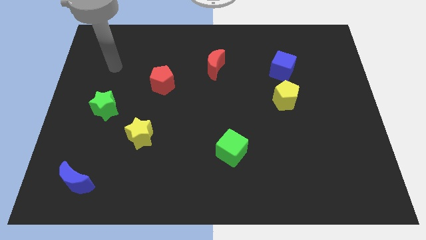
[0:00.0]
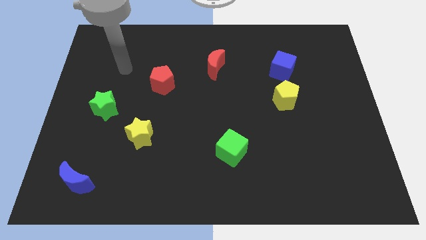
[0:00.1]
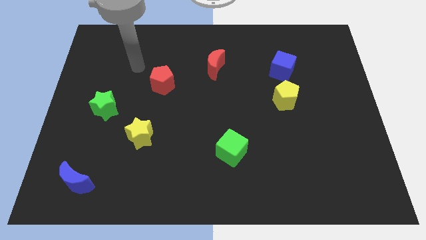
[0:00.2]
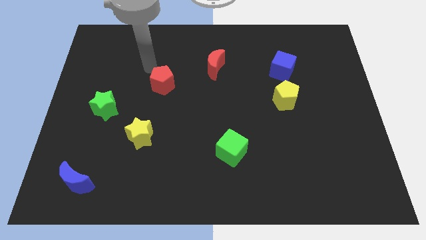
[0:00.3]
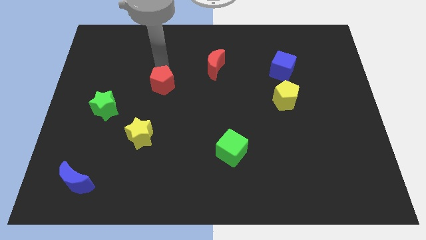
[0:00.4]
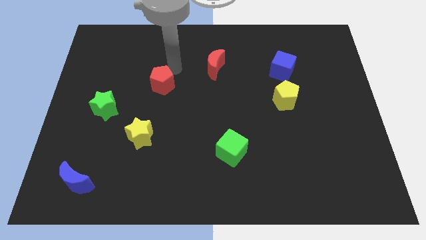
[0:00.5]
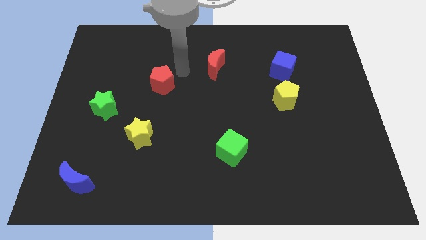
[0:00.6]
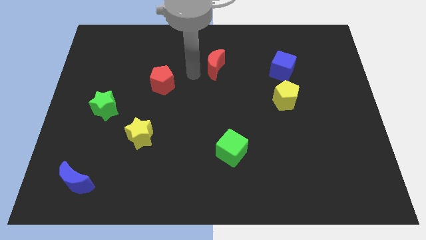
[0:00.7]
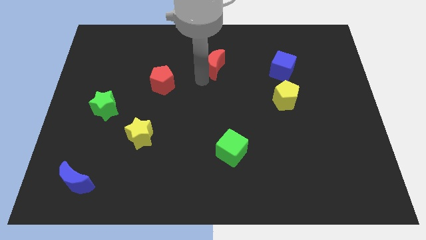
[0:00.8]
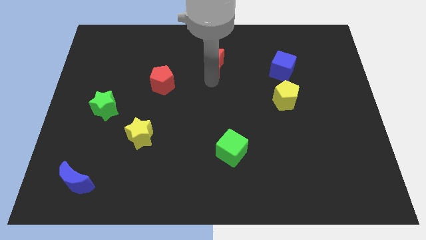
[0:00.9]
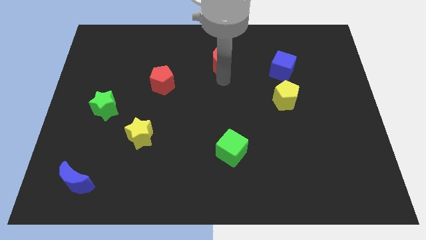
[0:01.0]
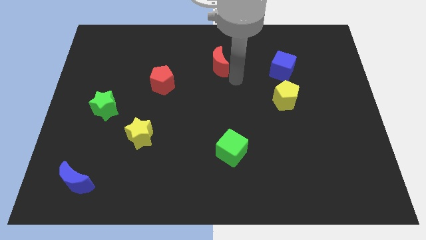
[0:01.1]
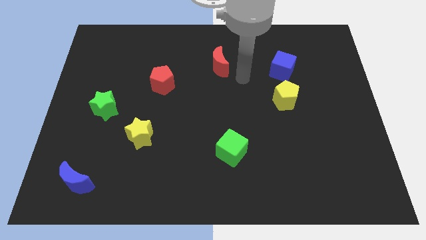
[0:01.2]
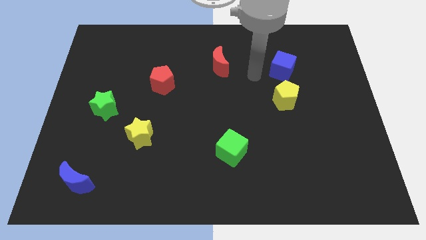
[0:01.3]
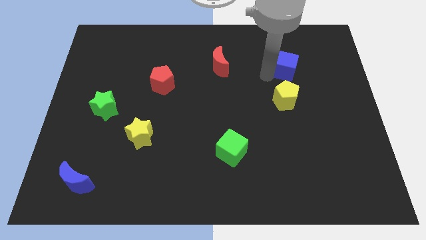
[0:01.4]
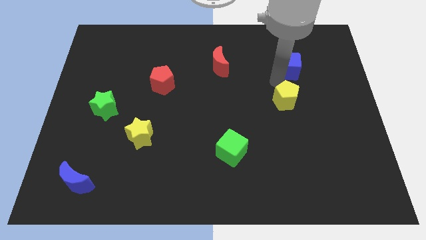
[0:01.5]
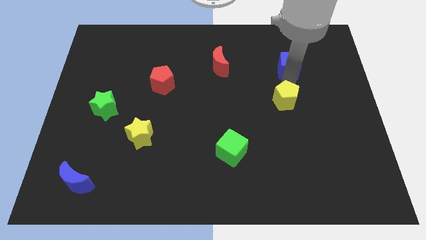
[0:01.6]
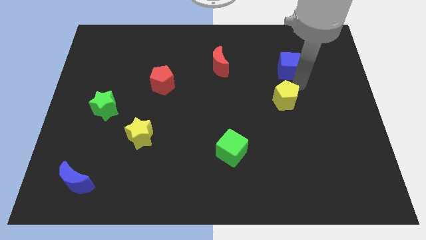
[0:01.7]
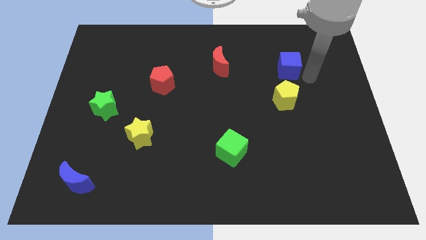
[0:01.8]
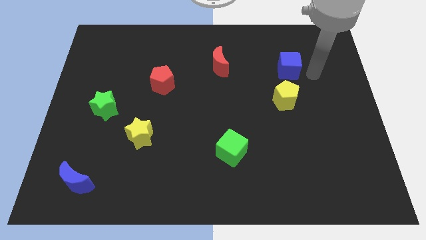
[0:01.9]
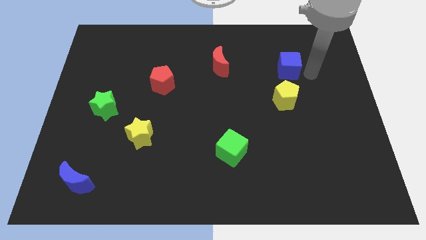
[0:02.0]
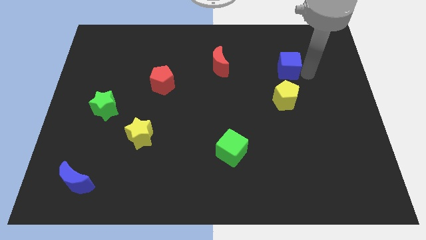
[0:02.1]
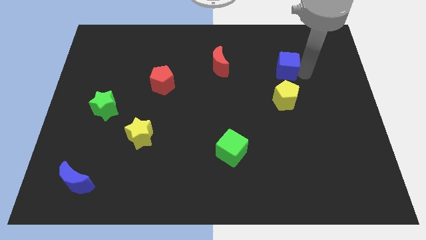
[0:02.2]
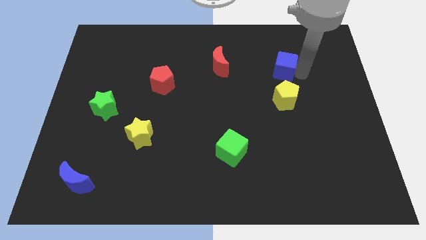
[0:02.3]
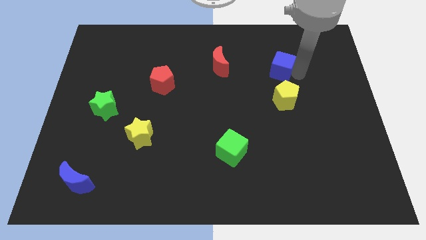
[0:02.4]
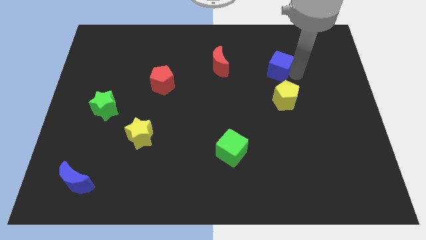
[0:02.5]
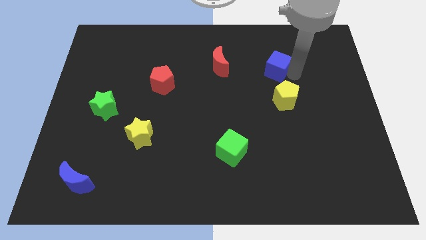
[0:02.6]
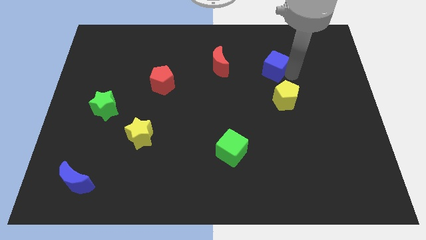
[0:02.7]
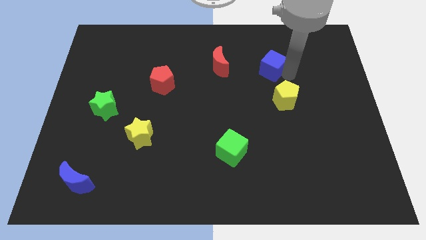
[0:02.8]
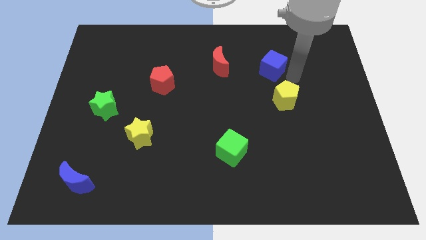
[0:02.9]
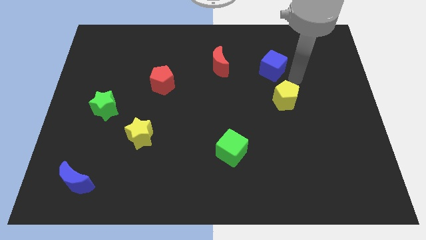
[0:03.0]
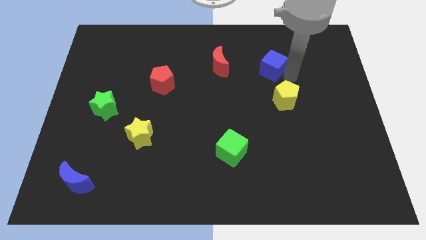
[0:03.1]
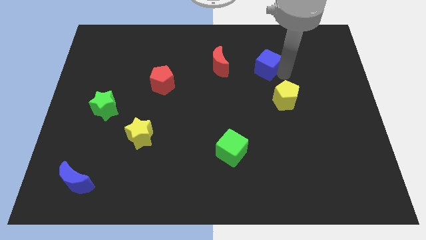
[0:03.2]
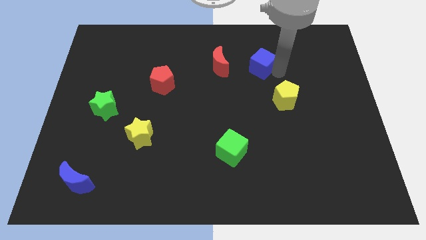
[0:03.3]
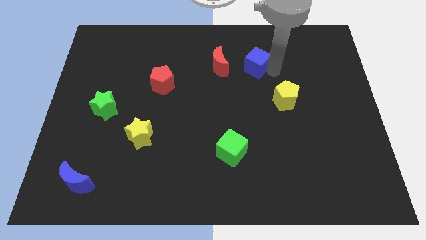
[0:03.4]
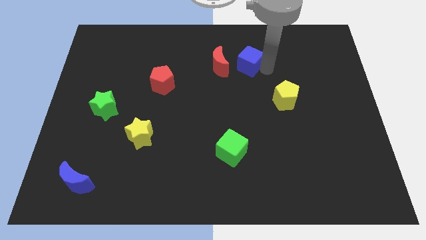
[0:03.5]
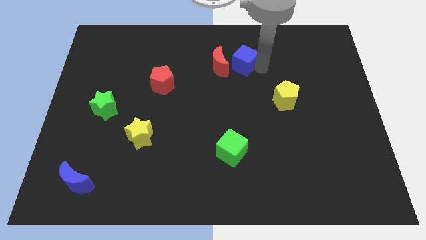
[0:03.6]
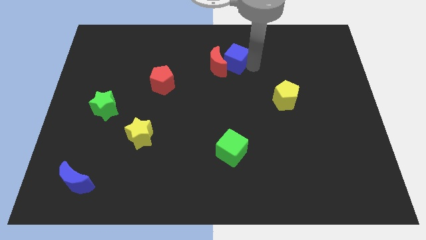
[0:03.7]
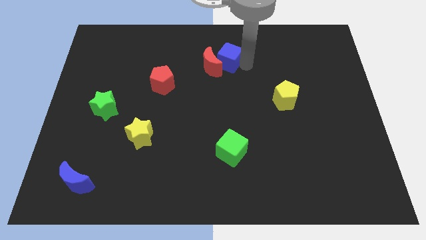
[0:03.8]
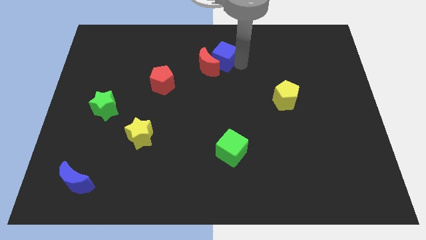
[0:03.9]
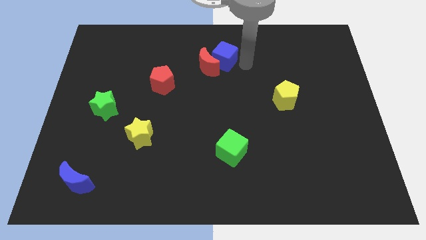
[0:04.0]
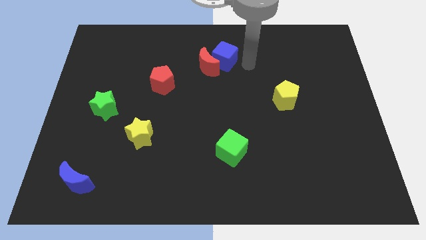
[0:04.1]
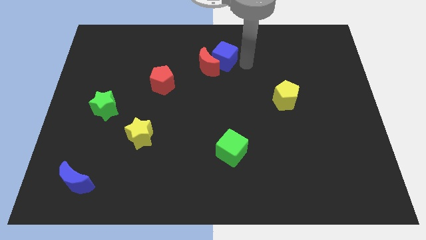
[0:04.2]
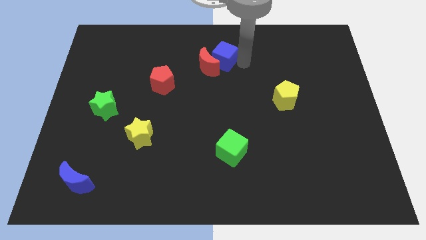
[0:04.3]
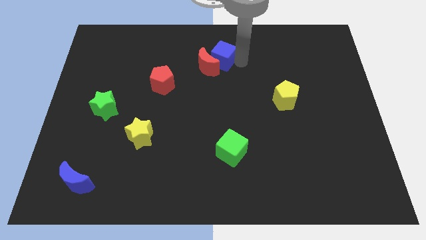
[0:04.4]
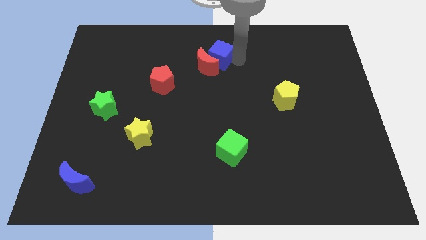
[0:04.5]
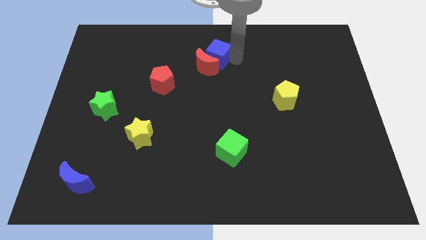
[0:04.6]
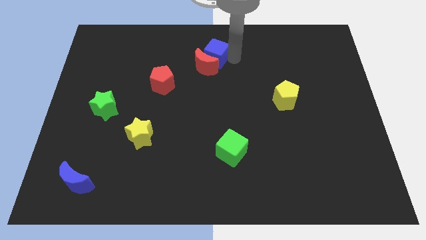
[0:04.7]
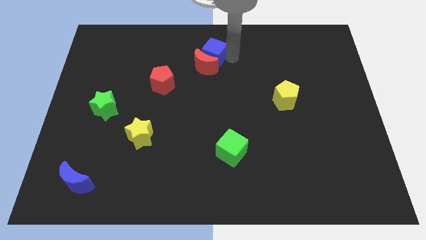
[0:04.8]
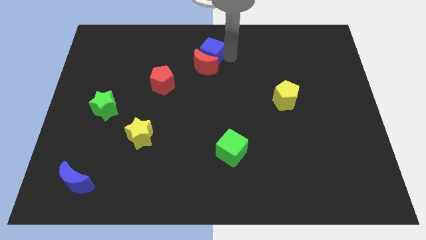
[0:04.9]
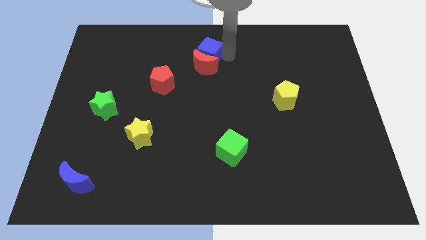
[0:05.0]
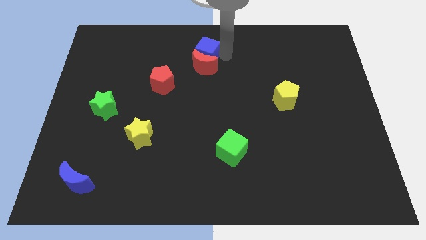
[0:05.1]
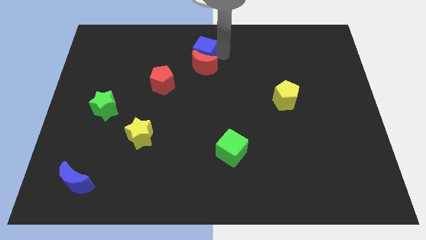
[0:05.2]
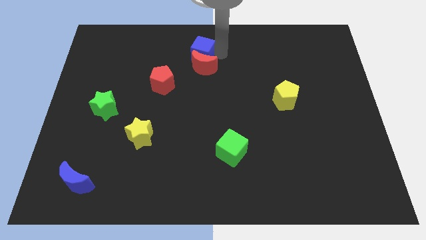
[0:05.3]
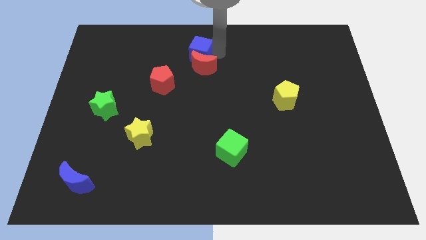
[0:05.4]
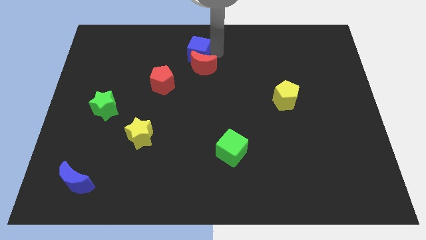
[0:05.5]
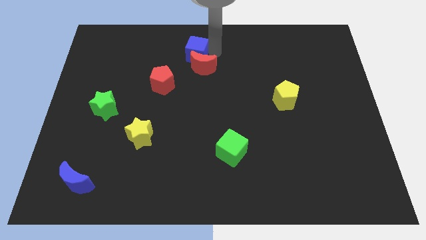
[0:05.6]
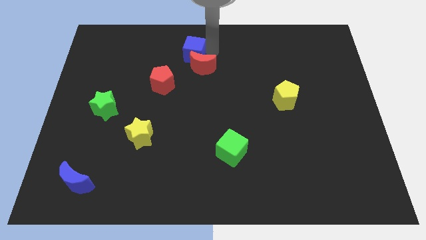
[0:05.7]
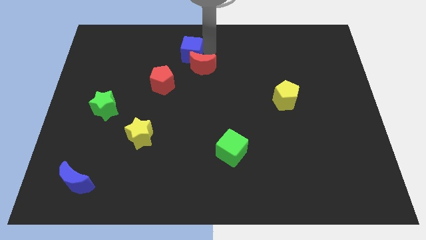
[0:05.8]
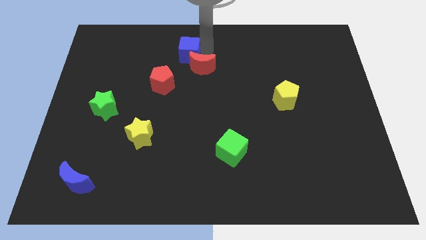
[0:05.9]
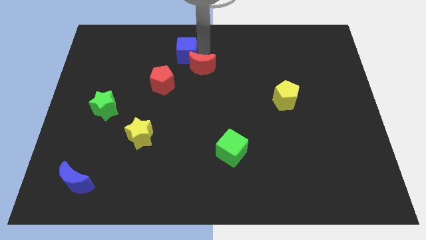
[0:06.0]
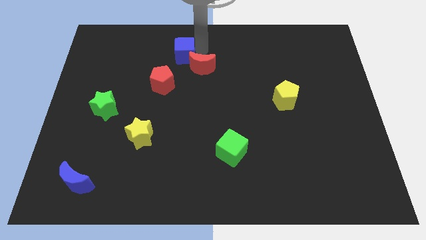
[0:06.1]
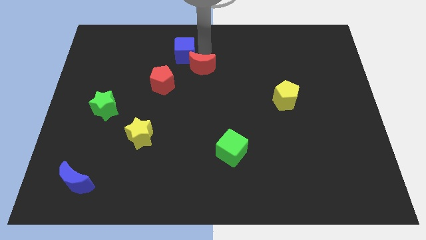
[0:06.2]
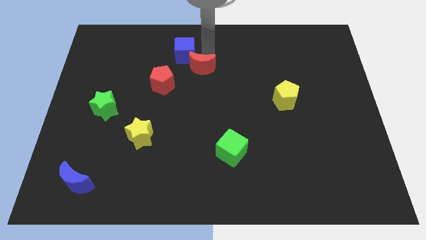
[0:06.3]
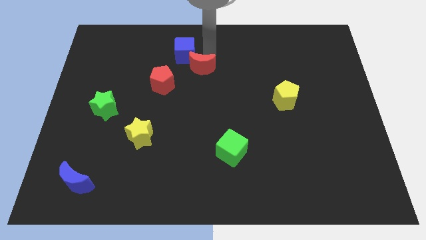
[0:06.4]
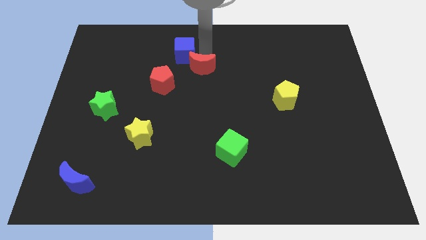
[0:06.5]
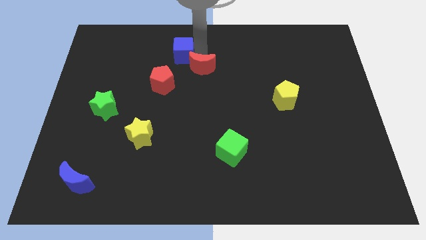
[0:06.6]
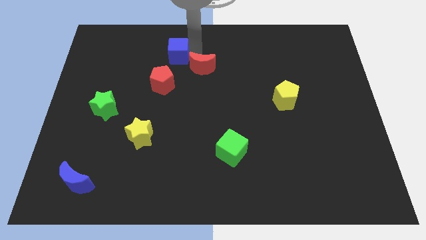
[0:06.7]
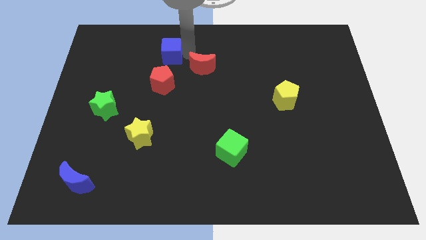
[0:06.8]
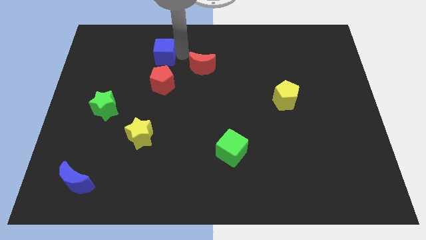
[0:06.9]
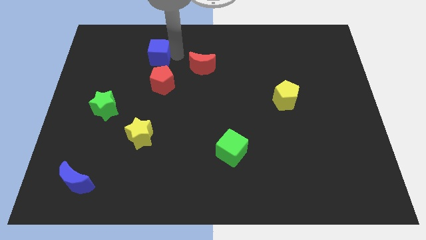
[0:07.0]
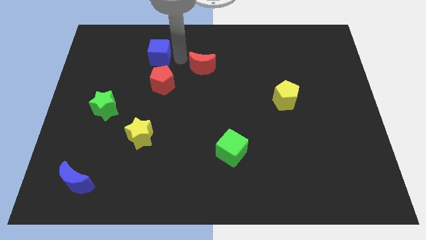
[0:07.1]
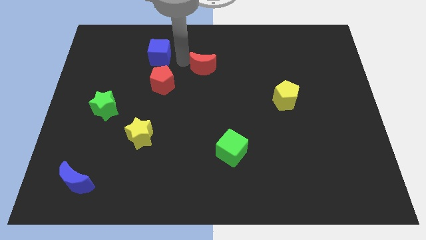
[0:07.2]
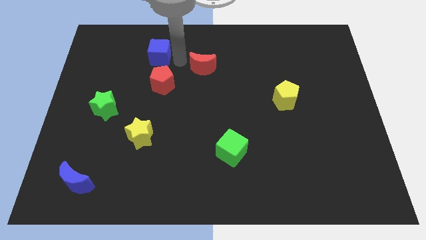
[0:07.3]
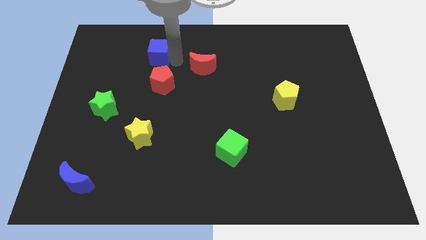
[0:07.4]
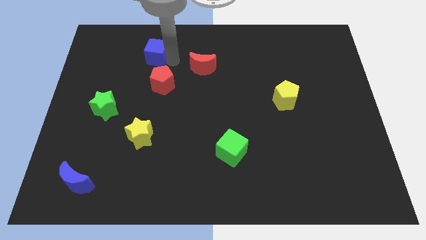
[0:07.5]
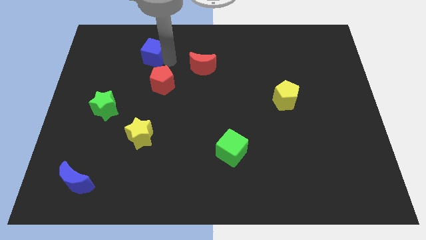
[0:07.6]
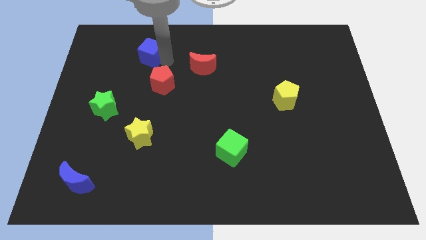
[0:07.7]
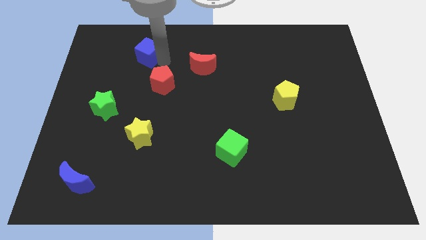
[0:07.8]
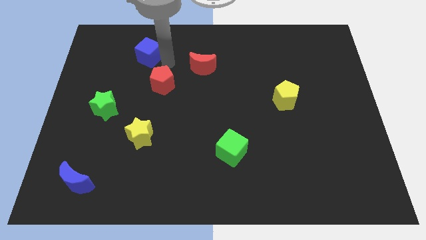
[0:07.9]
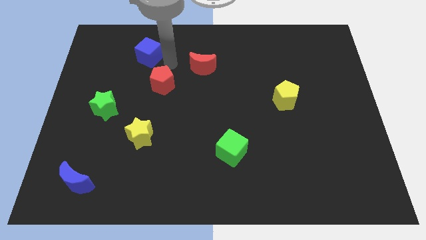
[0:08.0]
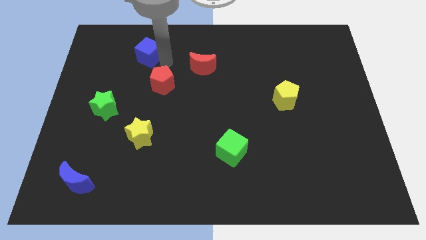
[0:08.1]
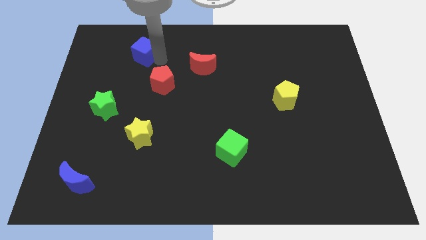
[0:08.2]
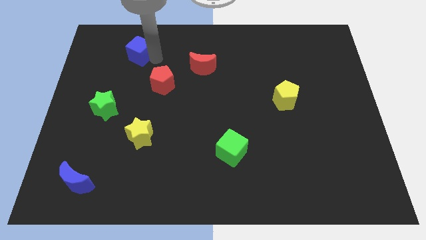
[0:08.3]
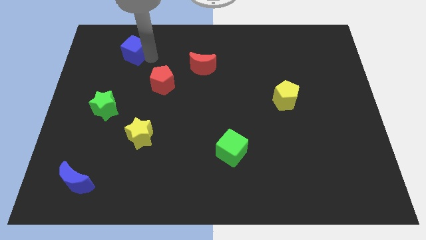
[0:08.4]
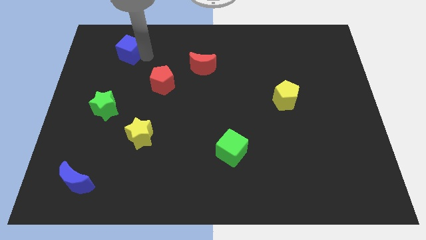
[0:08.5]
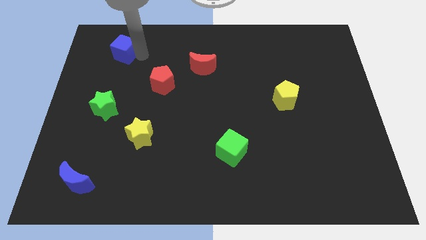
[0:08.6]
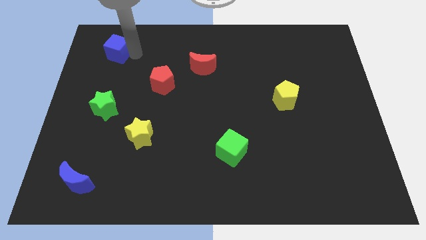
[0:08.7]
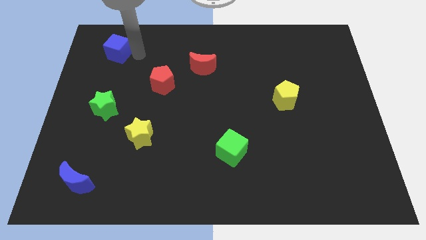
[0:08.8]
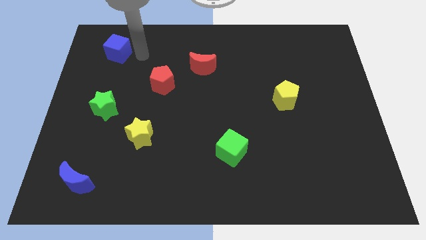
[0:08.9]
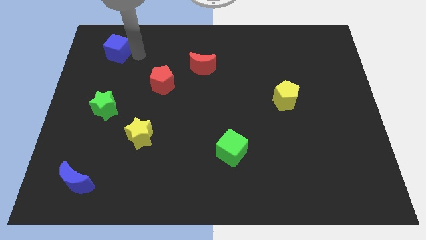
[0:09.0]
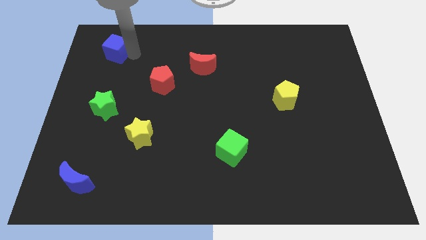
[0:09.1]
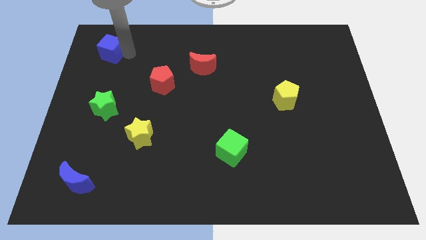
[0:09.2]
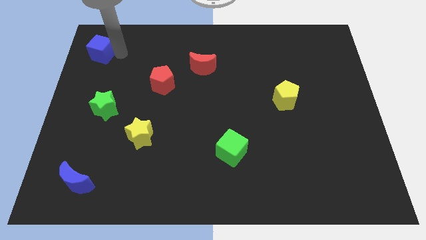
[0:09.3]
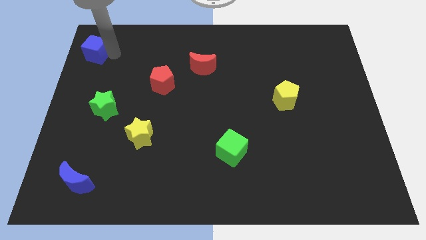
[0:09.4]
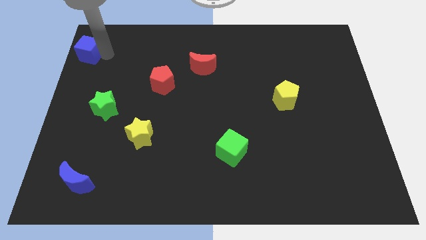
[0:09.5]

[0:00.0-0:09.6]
put the blue cube to the upper left corner
